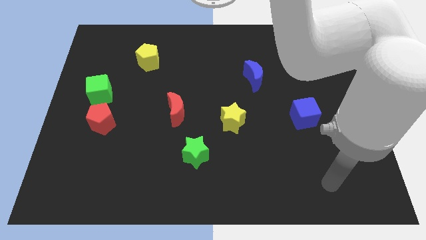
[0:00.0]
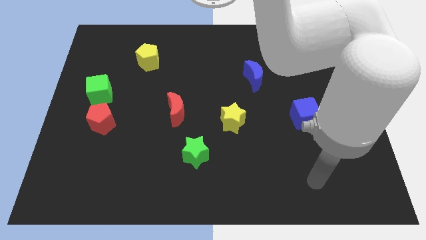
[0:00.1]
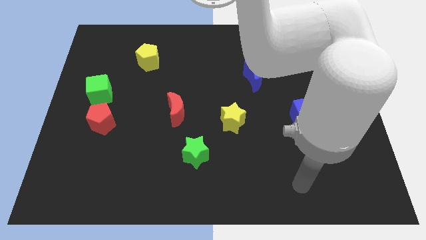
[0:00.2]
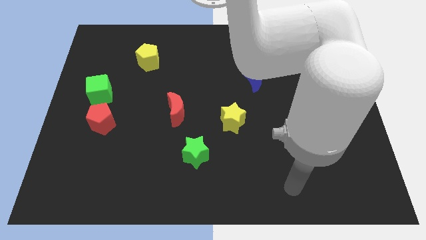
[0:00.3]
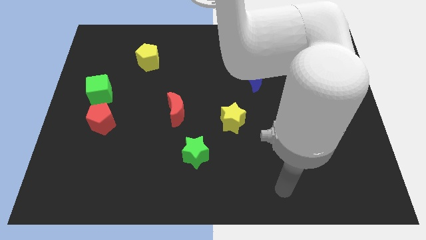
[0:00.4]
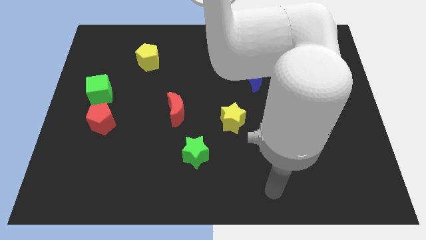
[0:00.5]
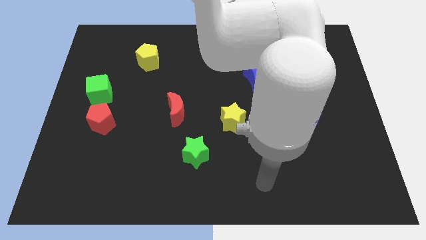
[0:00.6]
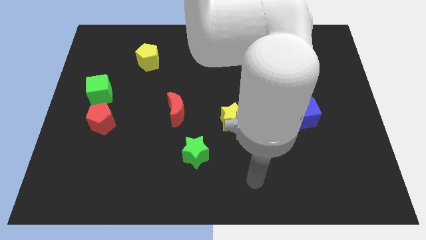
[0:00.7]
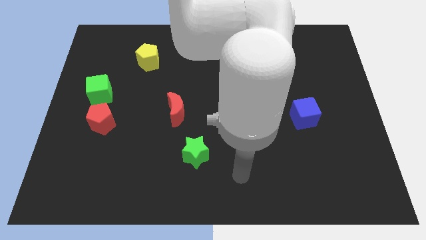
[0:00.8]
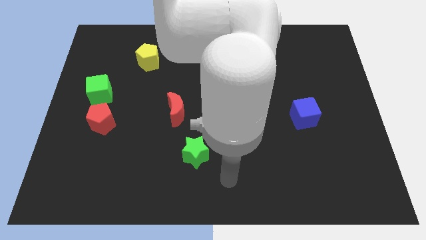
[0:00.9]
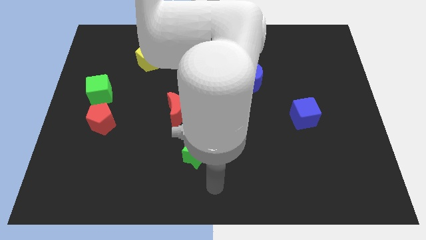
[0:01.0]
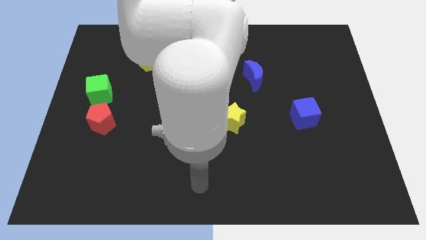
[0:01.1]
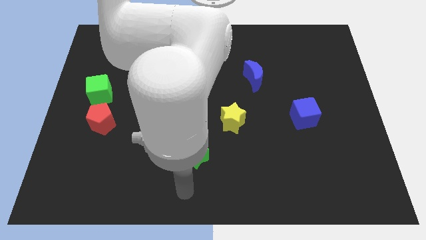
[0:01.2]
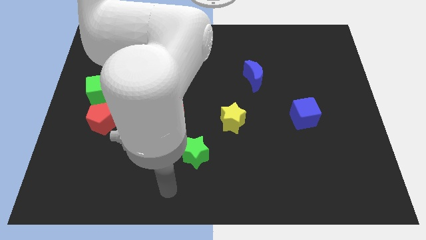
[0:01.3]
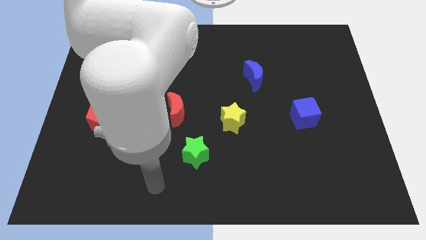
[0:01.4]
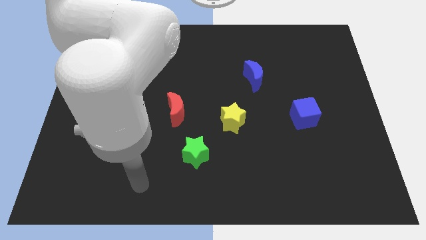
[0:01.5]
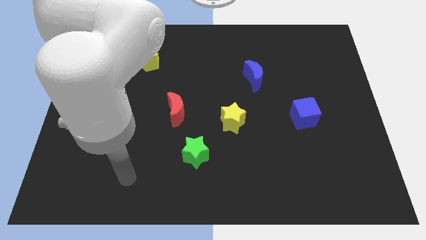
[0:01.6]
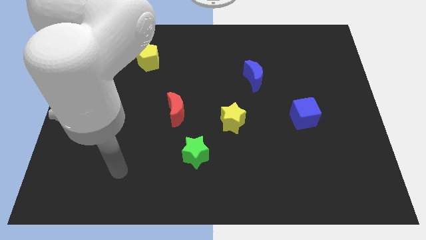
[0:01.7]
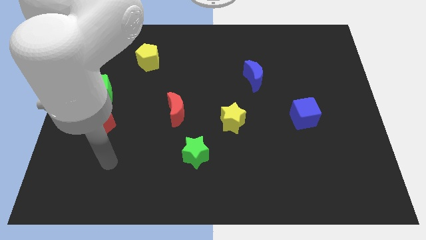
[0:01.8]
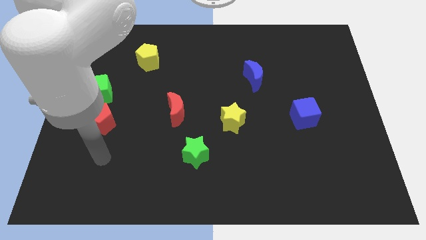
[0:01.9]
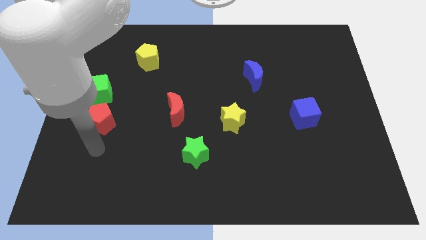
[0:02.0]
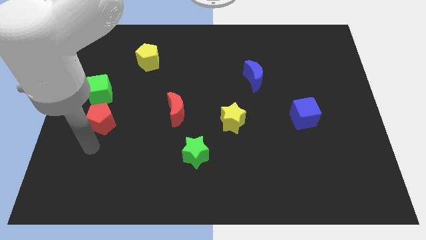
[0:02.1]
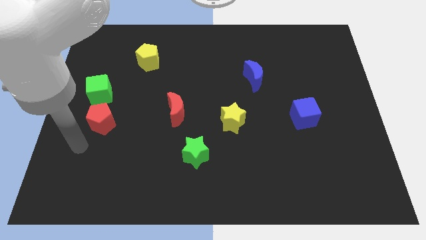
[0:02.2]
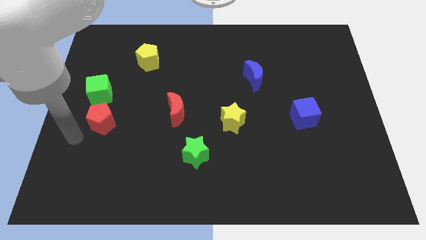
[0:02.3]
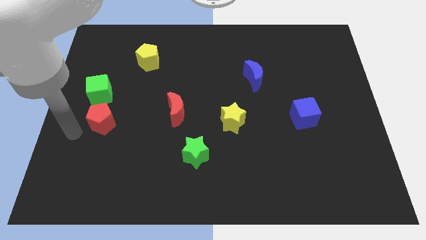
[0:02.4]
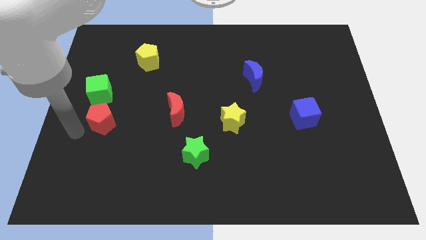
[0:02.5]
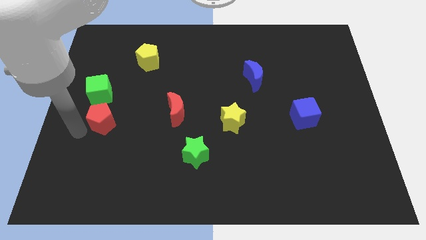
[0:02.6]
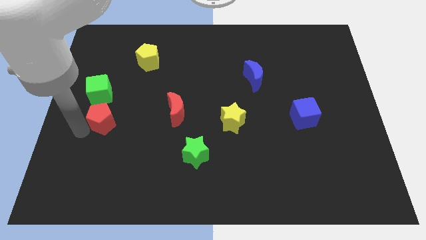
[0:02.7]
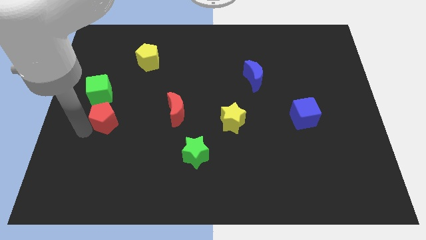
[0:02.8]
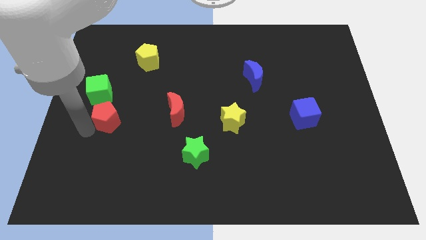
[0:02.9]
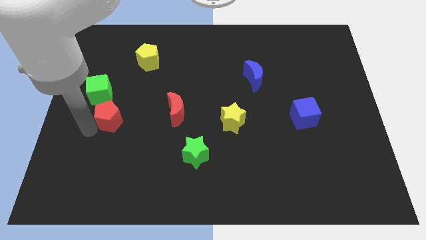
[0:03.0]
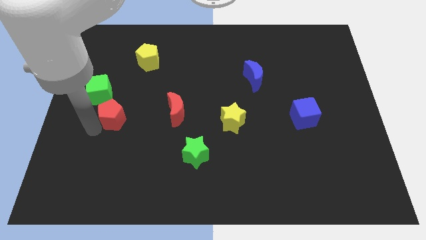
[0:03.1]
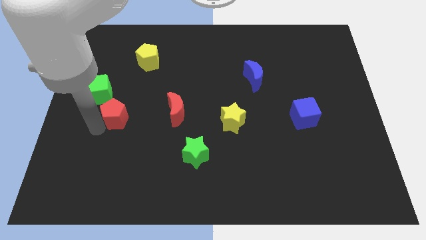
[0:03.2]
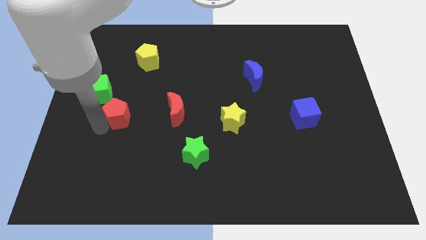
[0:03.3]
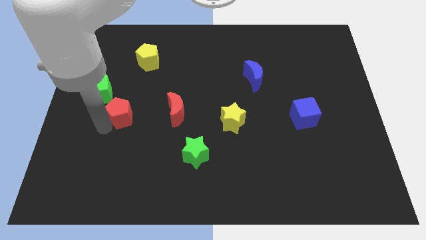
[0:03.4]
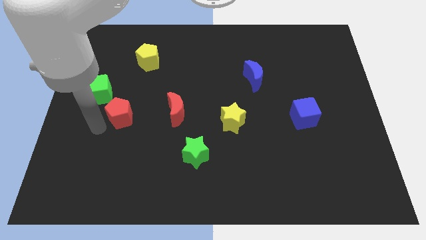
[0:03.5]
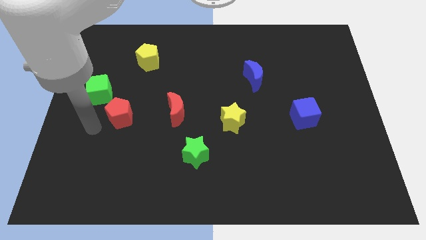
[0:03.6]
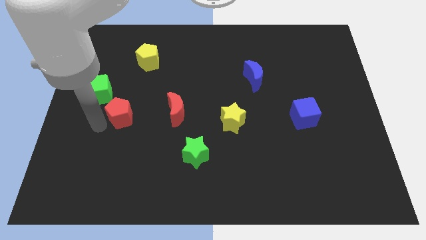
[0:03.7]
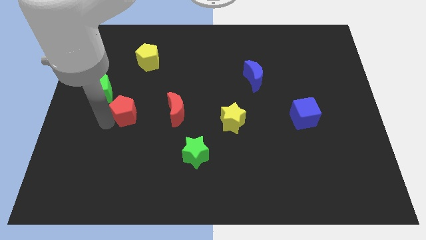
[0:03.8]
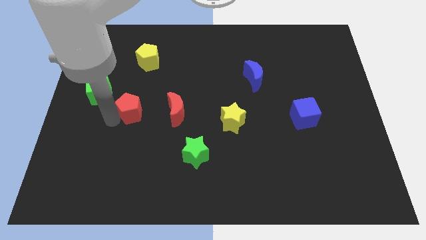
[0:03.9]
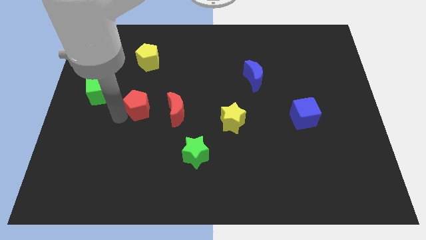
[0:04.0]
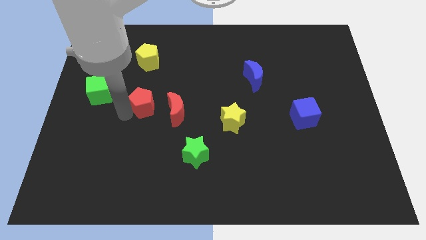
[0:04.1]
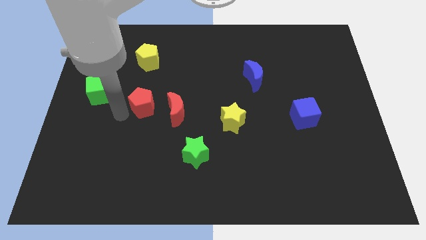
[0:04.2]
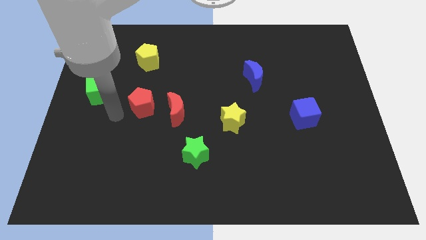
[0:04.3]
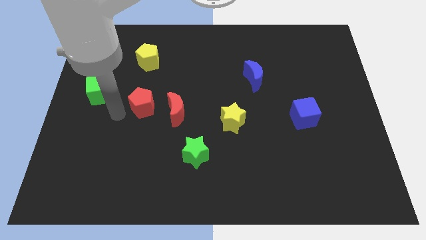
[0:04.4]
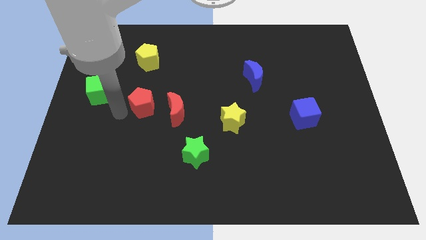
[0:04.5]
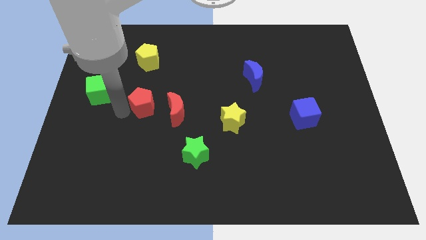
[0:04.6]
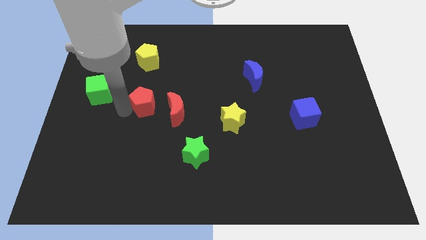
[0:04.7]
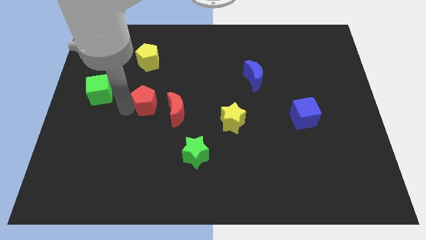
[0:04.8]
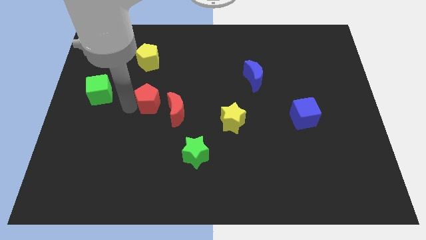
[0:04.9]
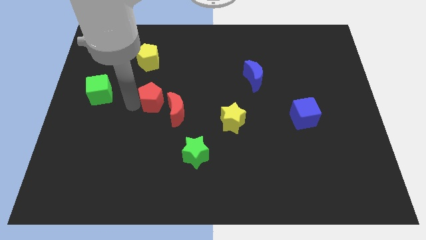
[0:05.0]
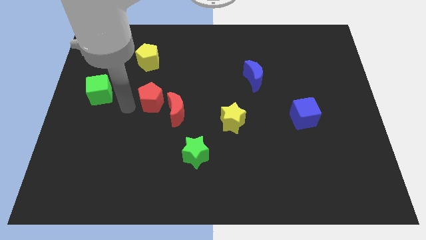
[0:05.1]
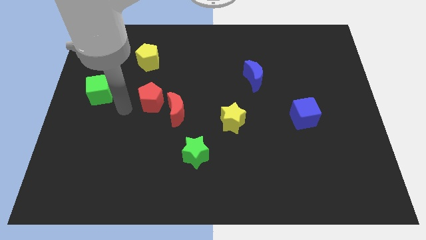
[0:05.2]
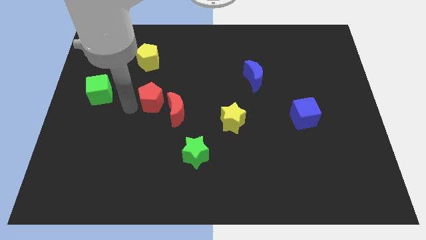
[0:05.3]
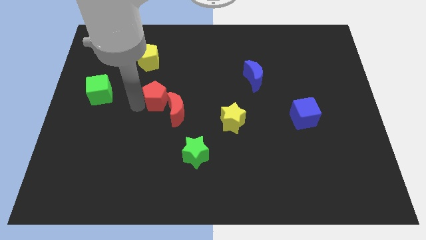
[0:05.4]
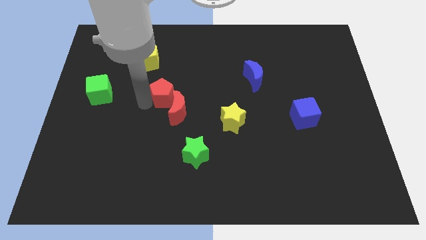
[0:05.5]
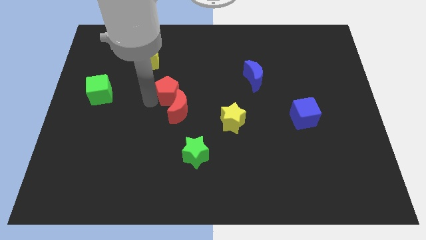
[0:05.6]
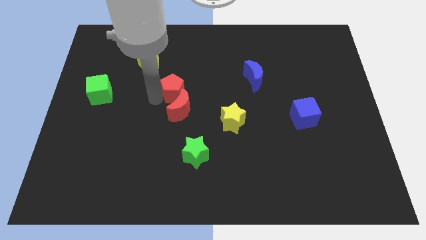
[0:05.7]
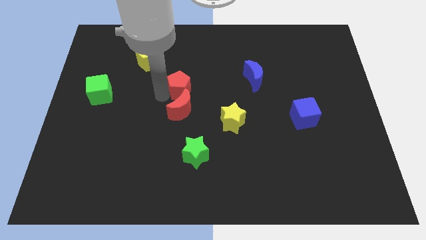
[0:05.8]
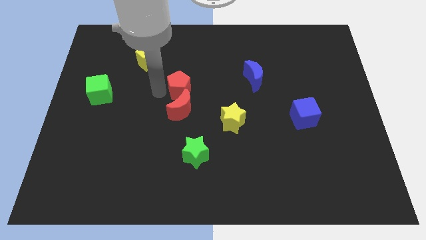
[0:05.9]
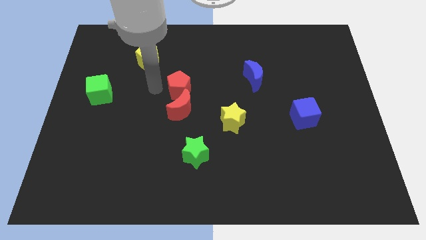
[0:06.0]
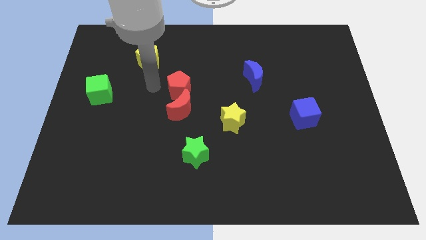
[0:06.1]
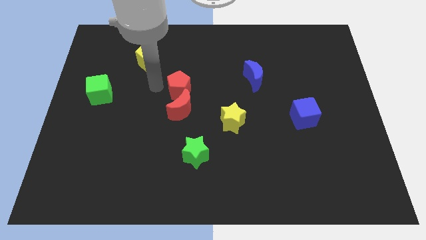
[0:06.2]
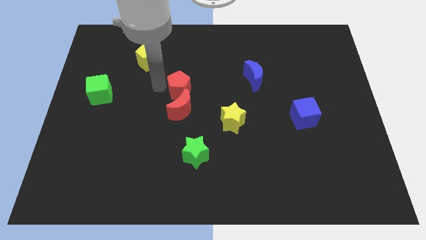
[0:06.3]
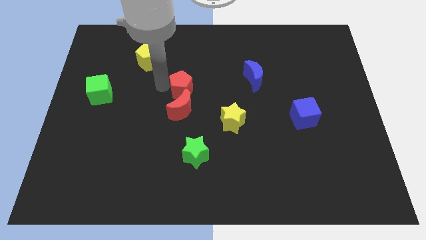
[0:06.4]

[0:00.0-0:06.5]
put the red pentagon diagonally up and to the right of the red moon

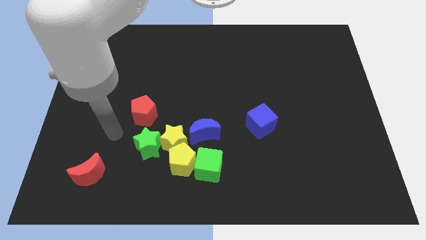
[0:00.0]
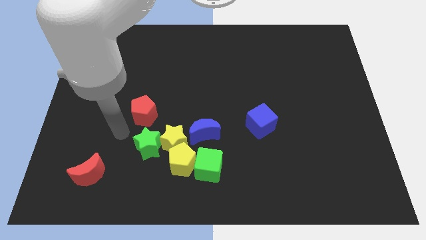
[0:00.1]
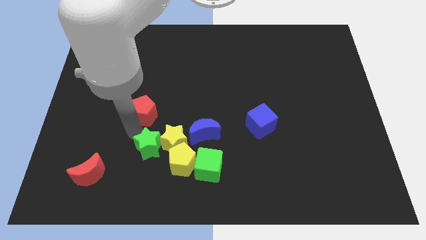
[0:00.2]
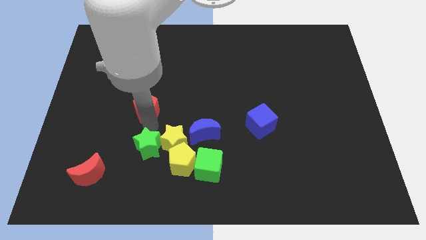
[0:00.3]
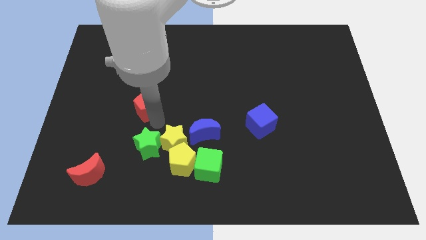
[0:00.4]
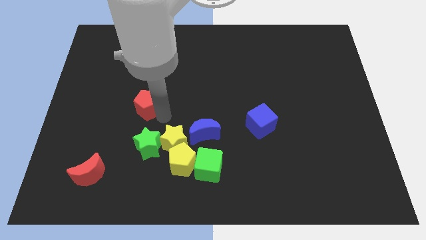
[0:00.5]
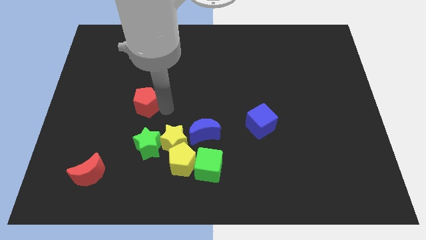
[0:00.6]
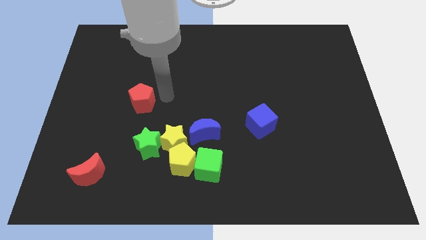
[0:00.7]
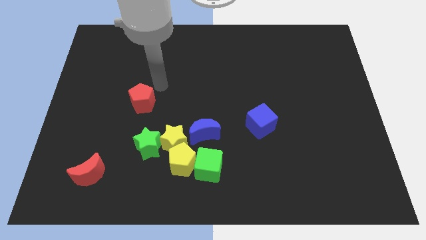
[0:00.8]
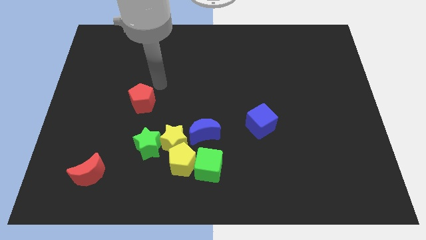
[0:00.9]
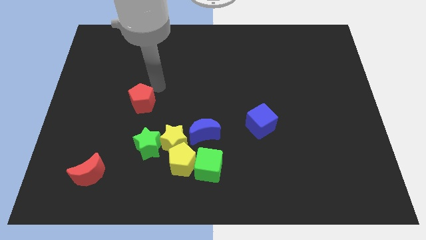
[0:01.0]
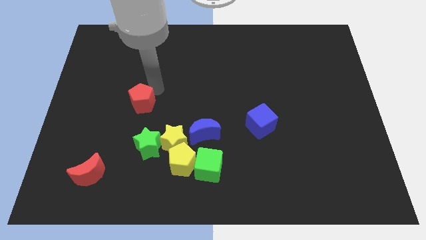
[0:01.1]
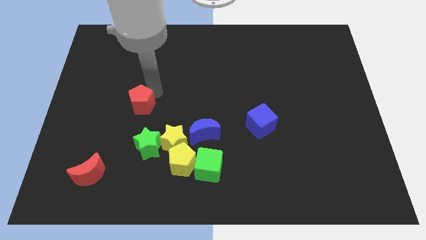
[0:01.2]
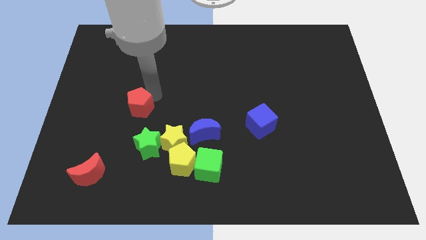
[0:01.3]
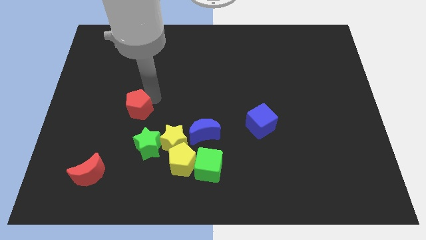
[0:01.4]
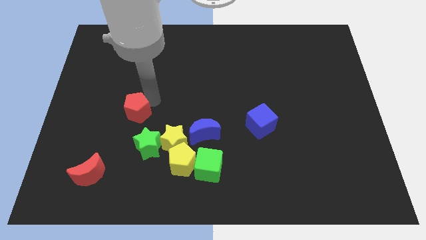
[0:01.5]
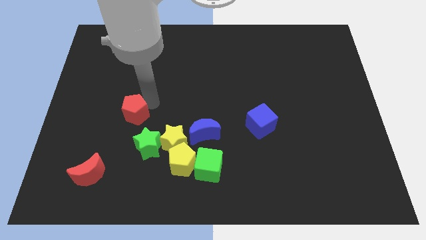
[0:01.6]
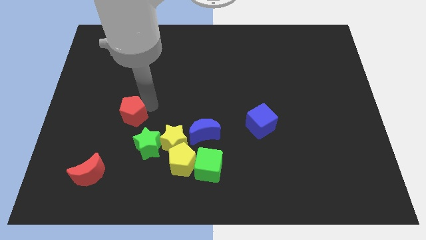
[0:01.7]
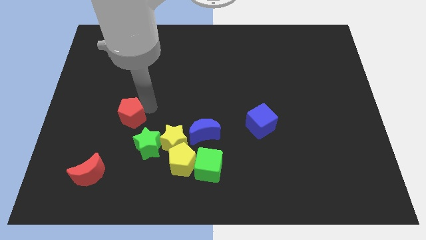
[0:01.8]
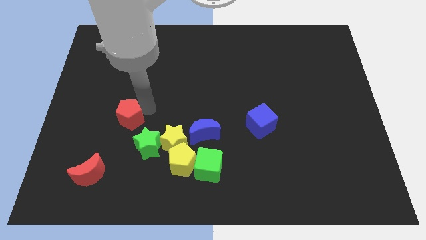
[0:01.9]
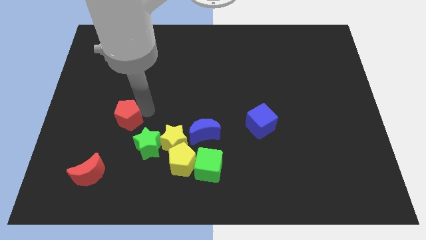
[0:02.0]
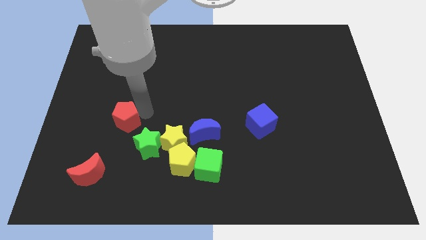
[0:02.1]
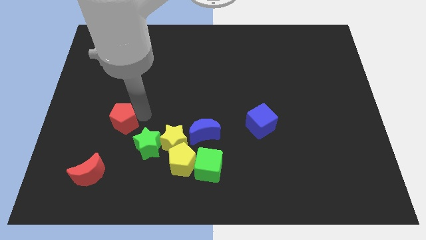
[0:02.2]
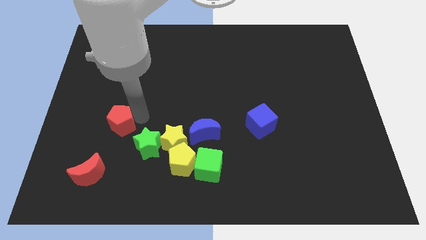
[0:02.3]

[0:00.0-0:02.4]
put the red pentagon above the red moon
